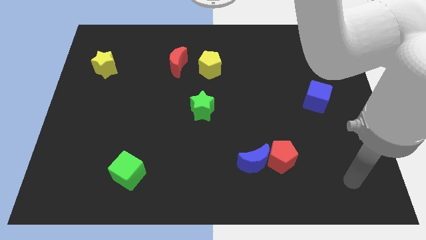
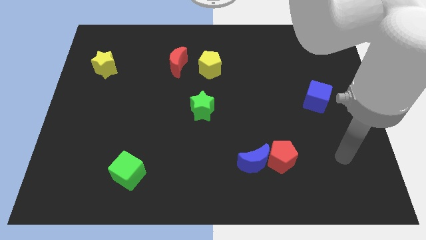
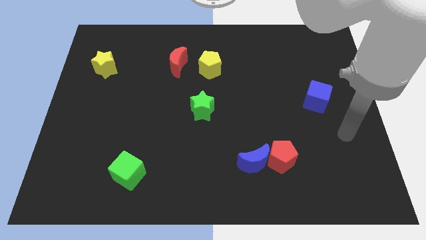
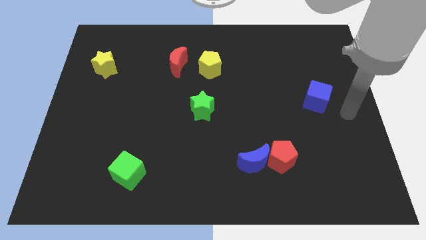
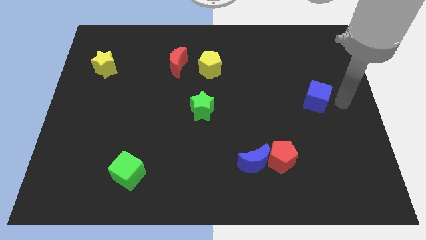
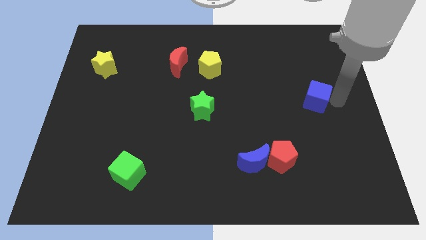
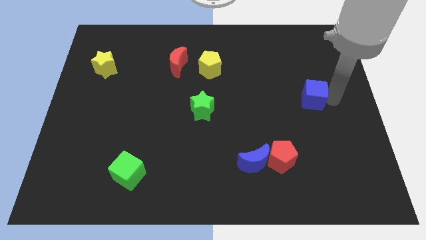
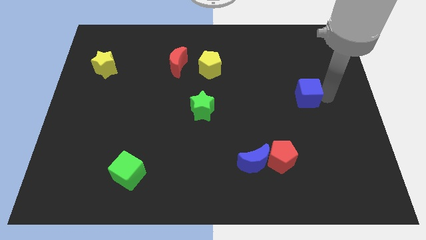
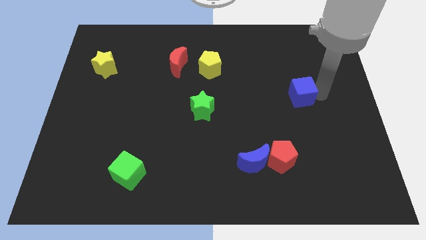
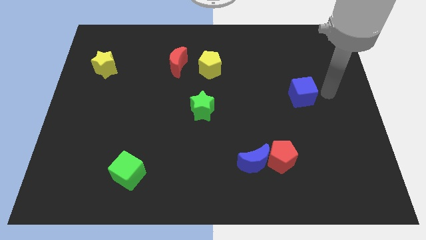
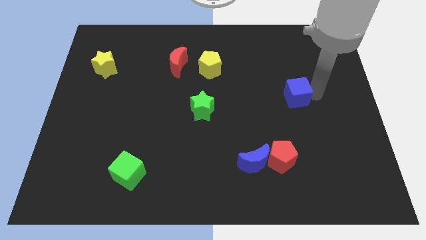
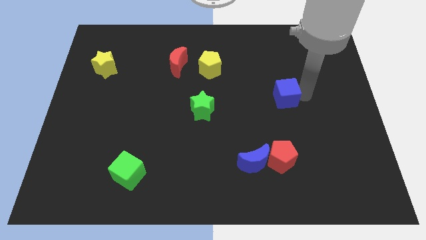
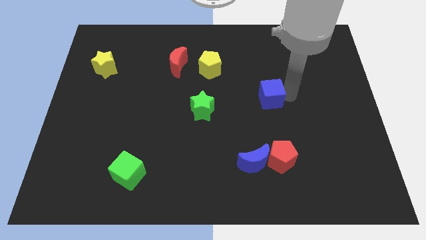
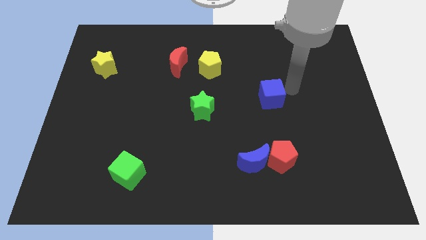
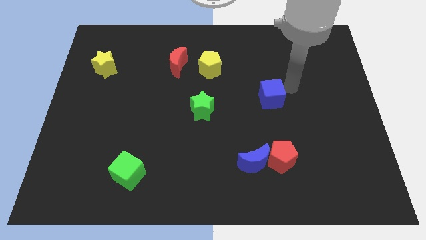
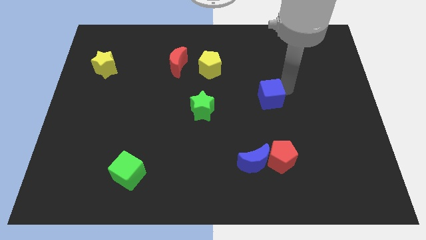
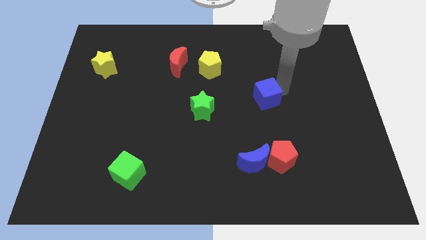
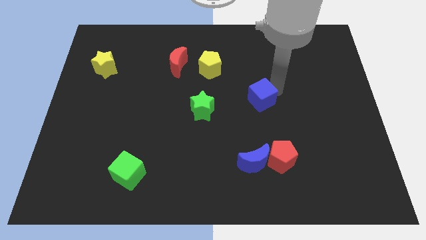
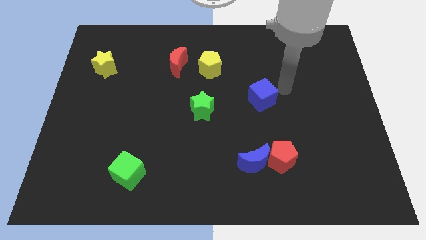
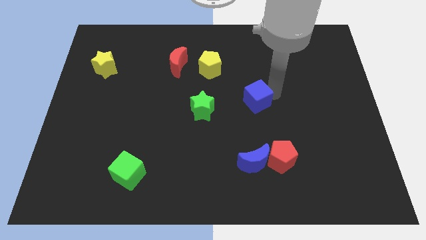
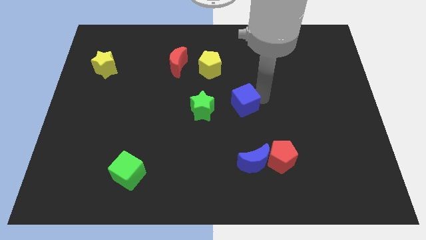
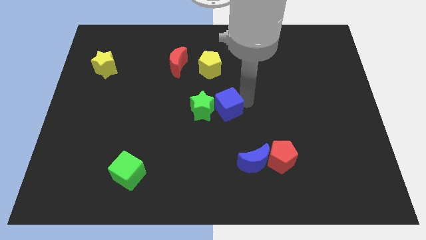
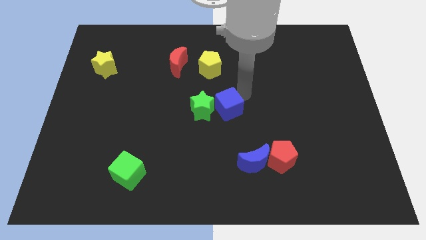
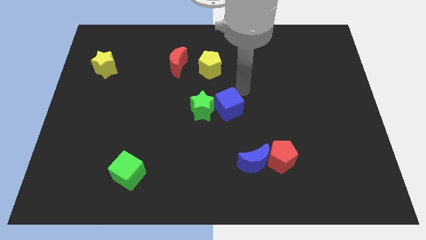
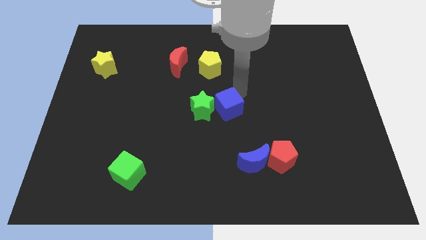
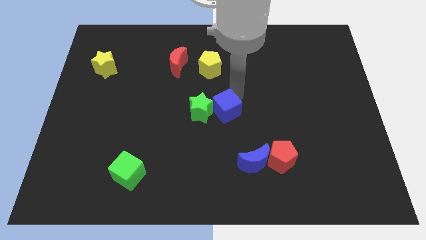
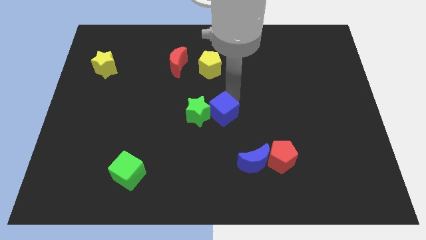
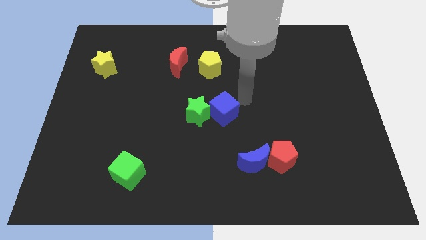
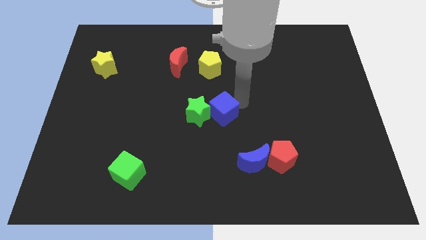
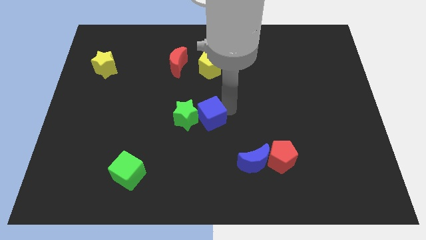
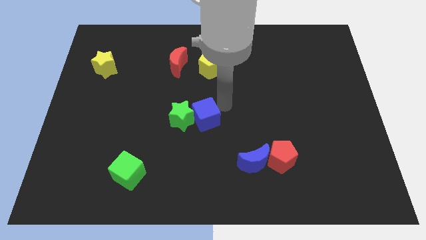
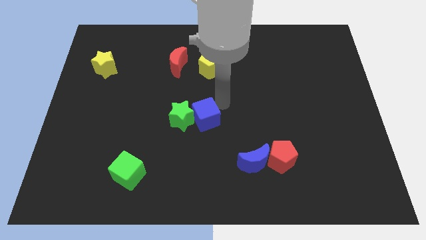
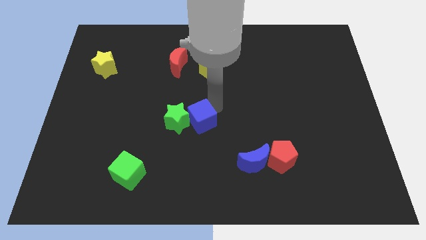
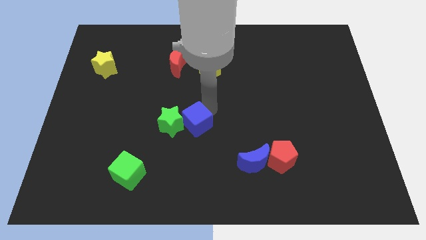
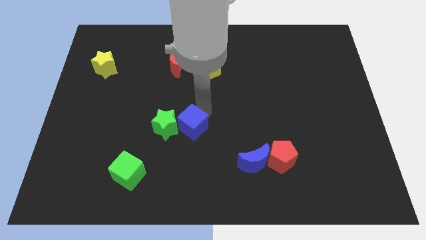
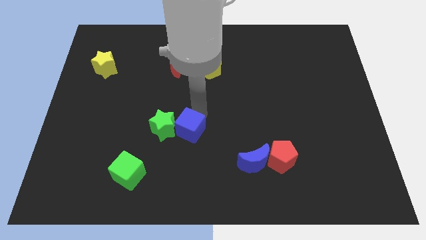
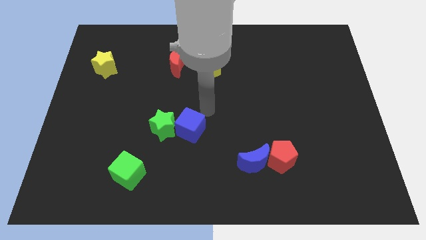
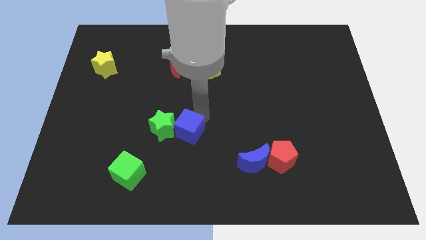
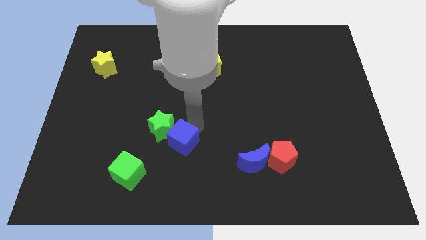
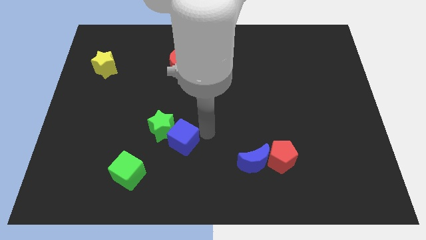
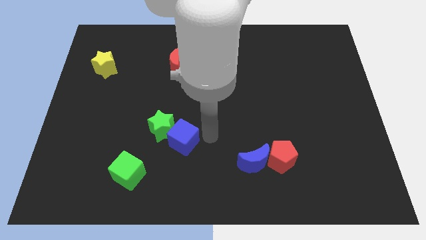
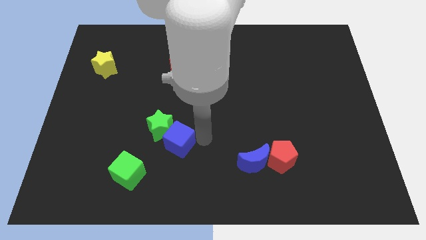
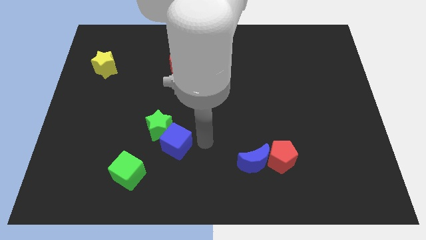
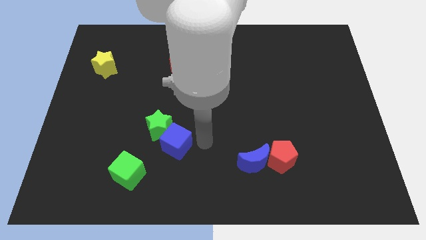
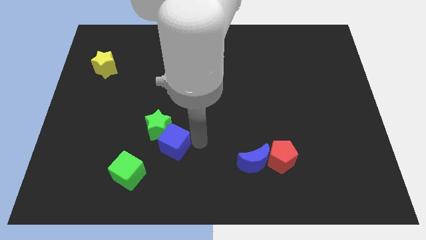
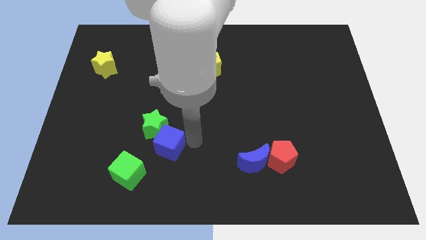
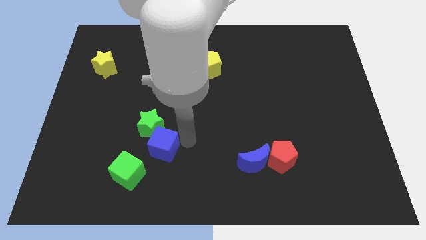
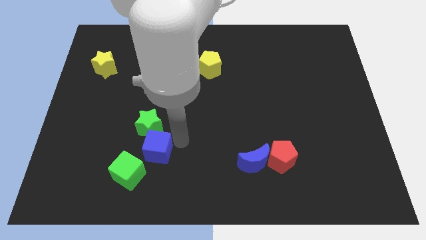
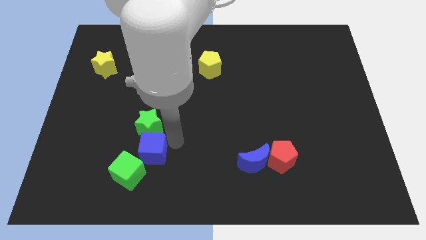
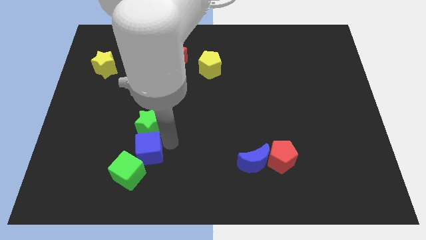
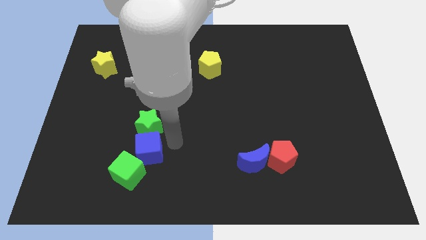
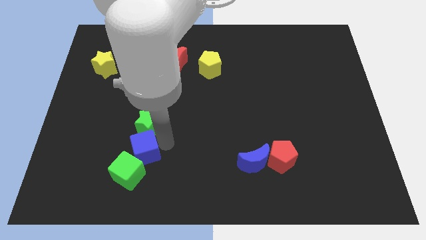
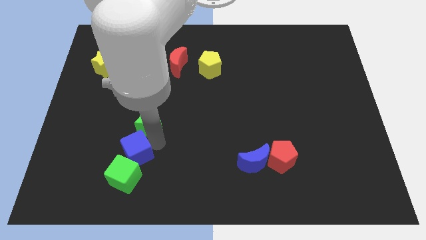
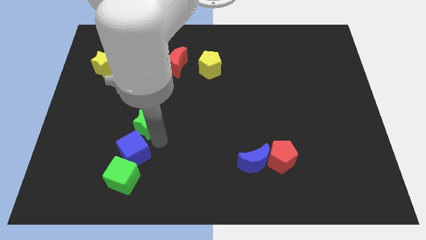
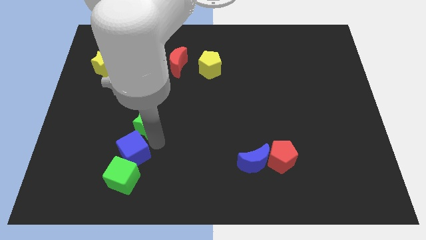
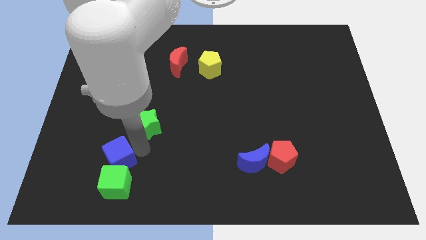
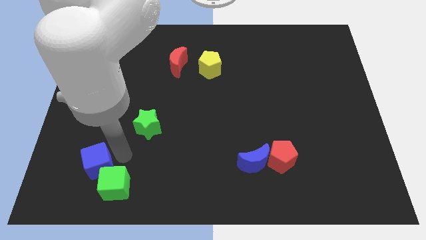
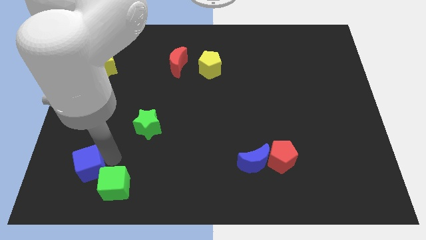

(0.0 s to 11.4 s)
move the blue cube to the left side of the green cube

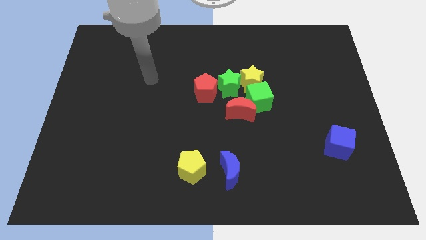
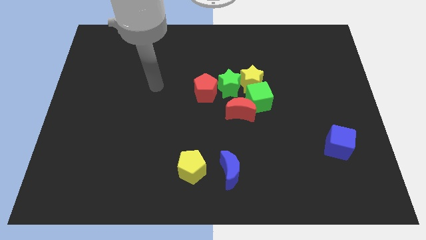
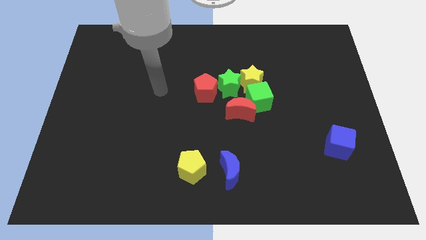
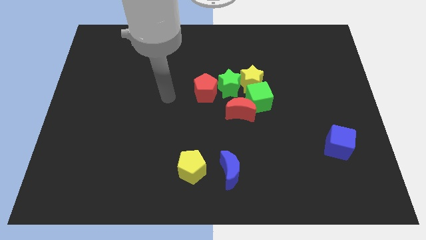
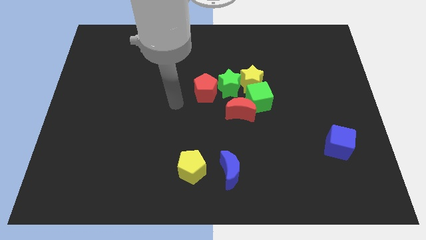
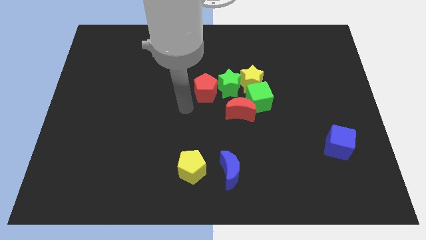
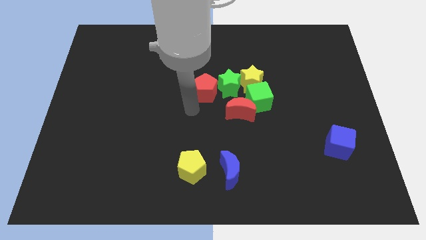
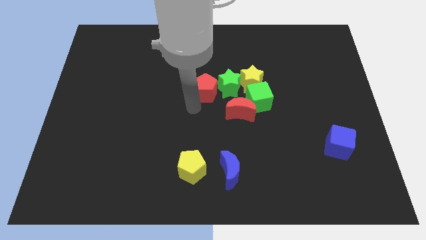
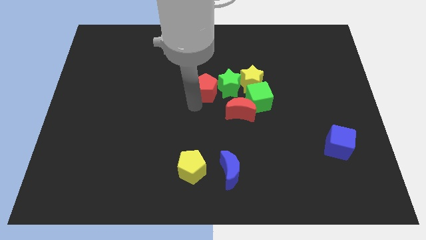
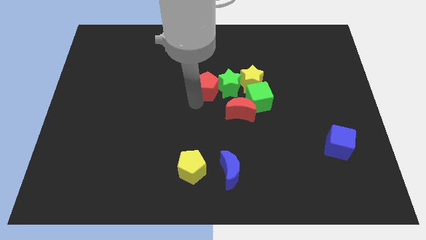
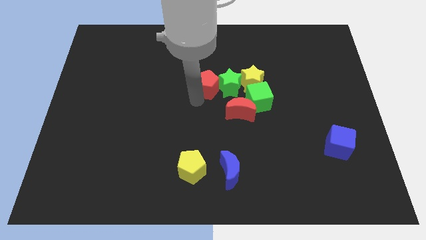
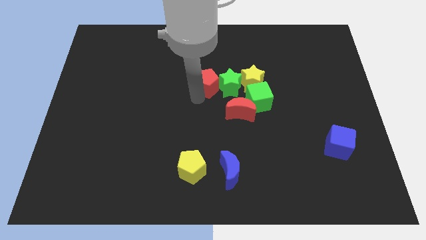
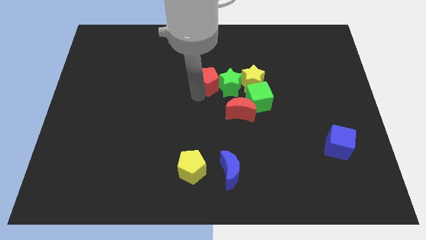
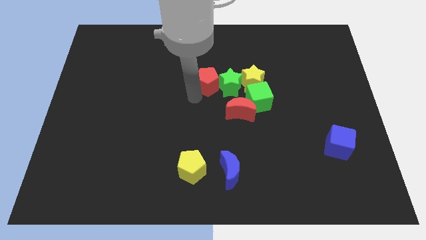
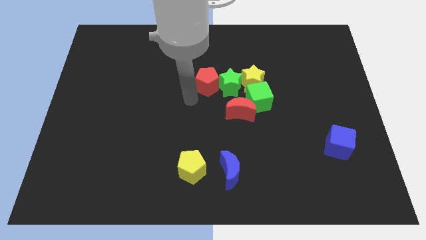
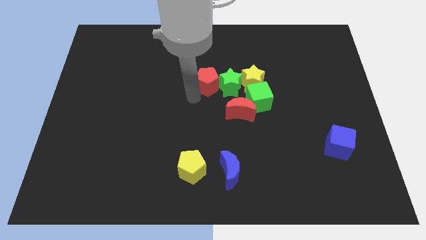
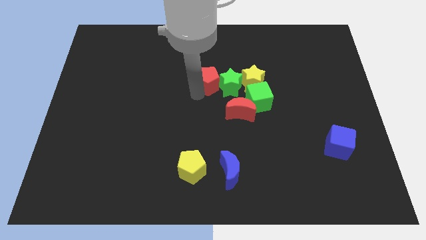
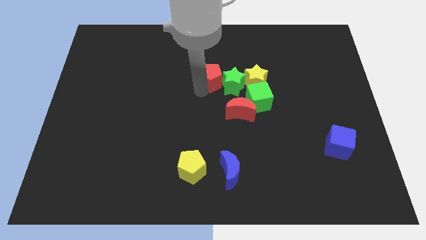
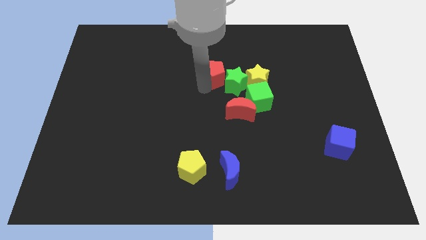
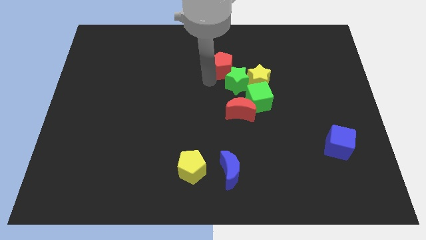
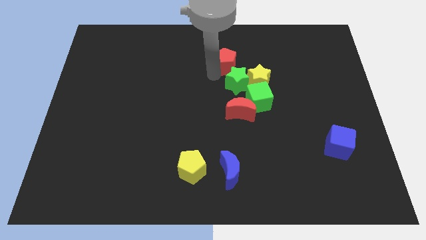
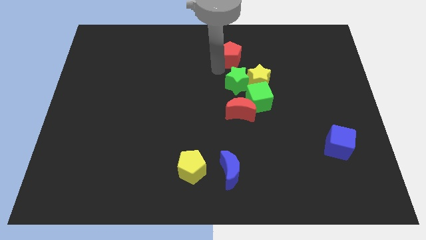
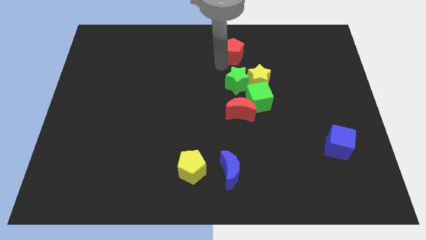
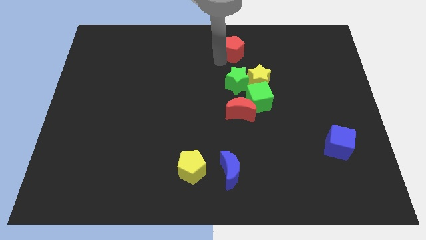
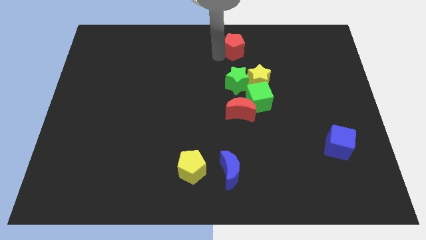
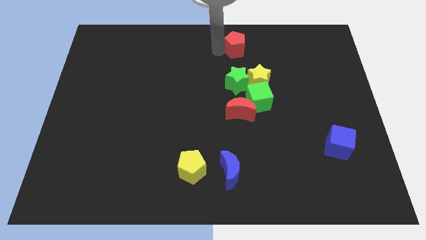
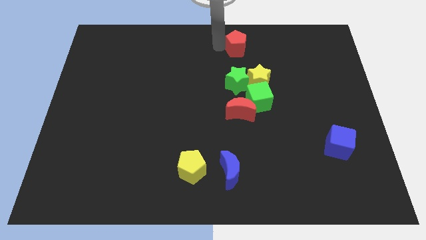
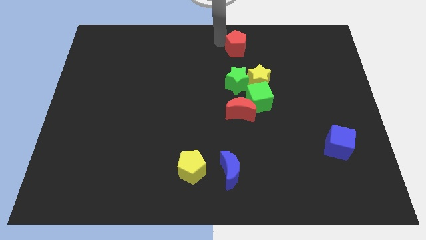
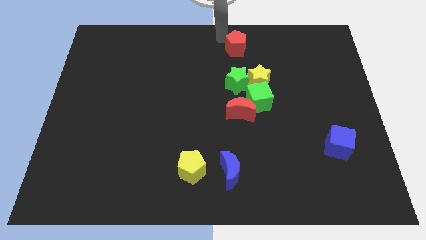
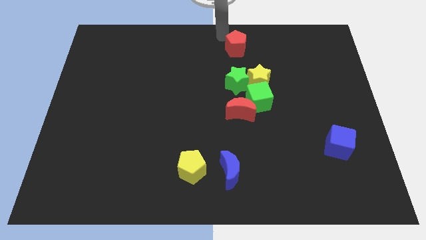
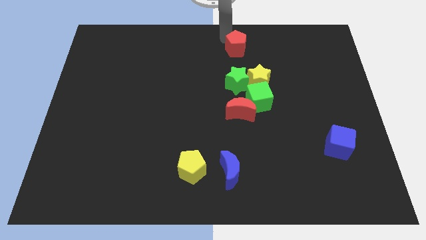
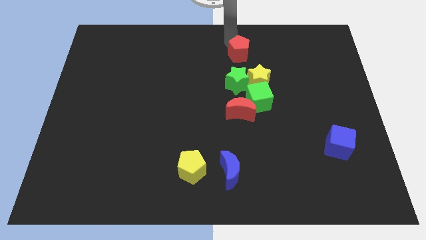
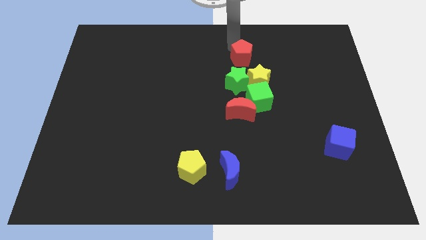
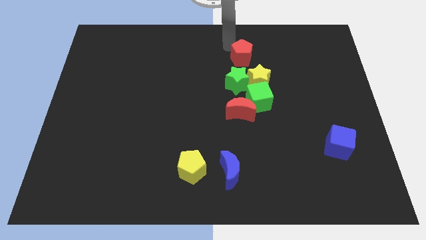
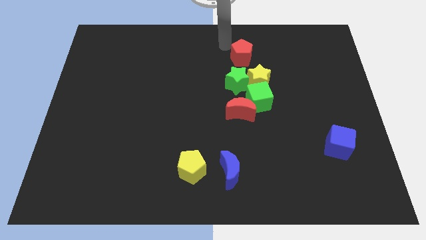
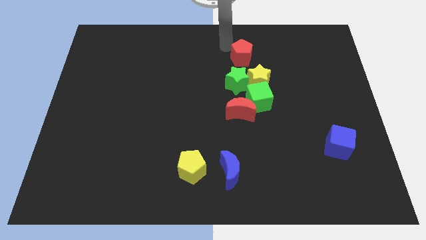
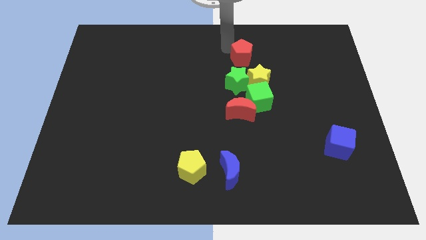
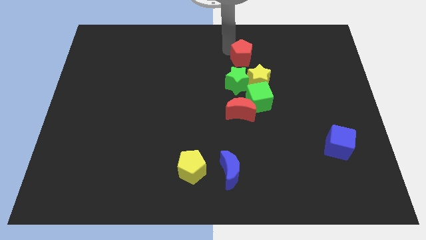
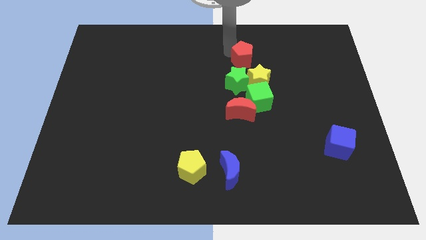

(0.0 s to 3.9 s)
push the red pentagon to the top right side of the green star
